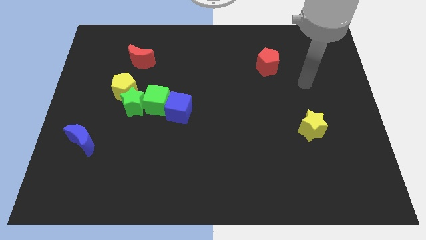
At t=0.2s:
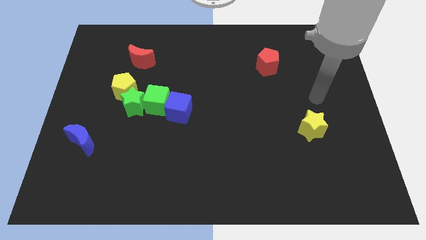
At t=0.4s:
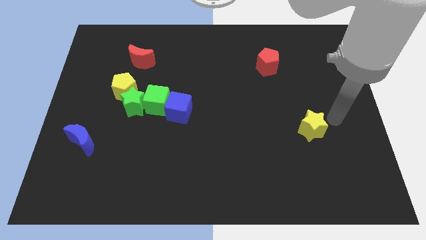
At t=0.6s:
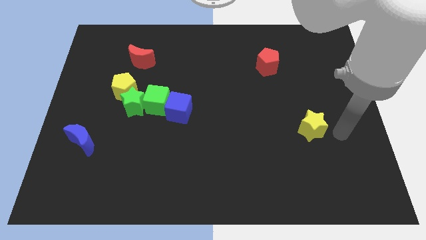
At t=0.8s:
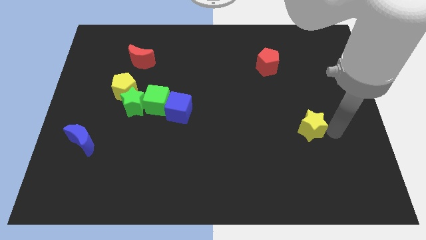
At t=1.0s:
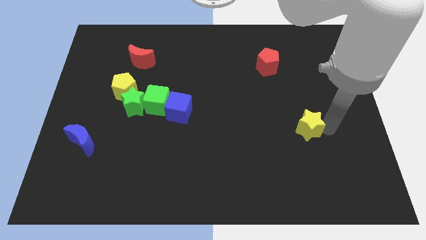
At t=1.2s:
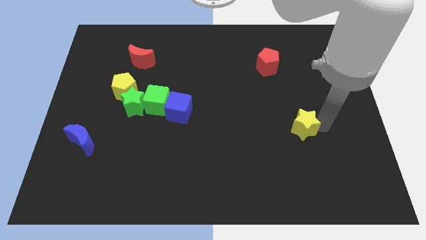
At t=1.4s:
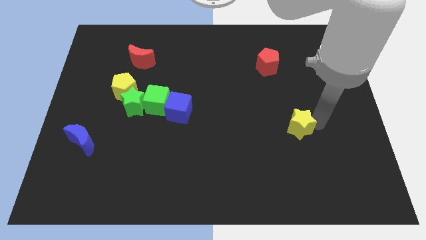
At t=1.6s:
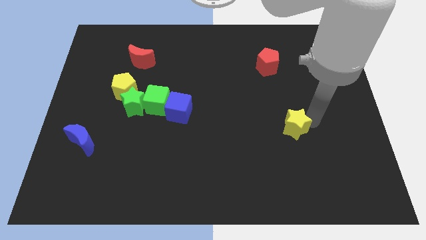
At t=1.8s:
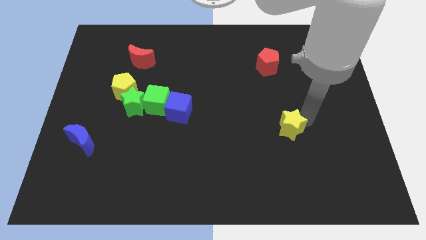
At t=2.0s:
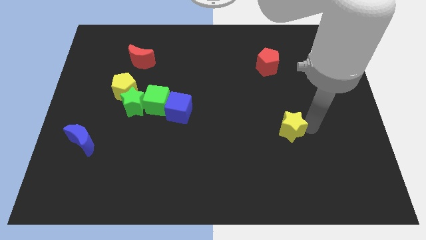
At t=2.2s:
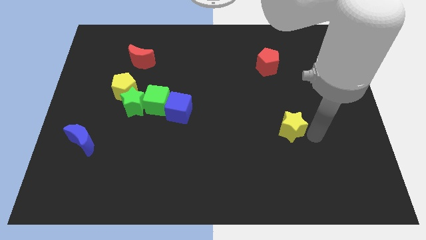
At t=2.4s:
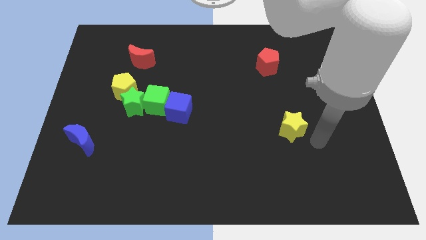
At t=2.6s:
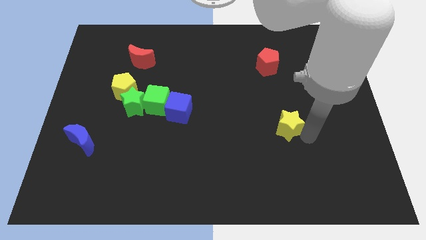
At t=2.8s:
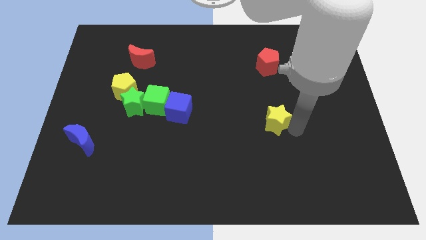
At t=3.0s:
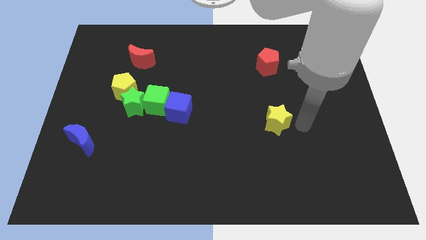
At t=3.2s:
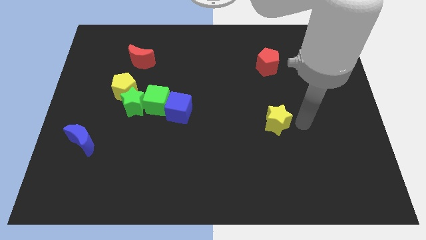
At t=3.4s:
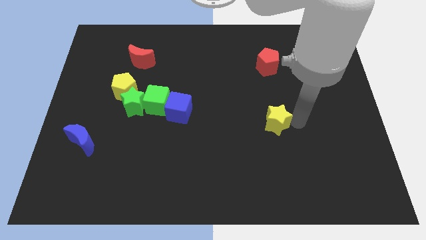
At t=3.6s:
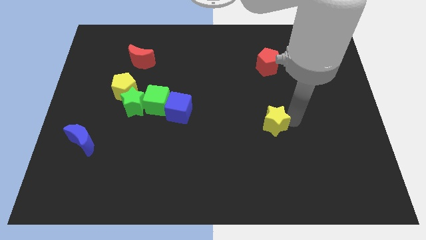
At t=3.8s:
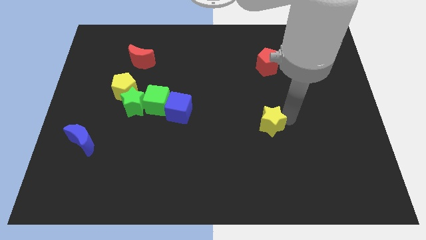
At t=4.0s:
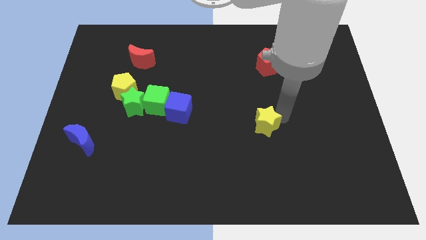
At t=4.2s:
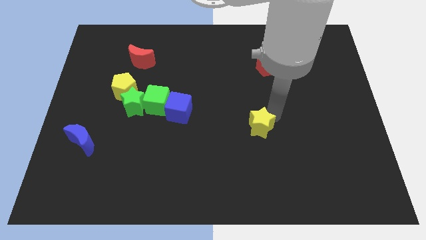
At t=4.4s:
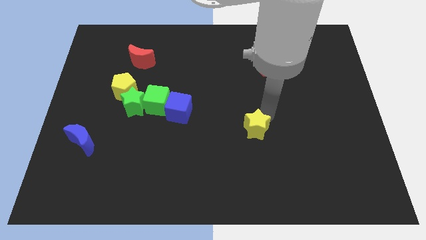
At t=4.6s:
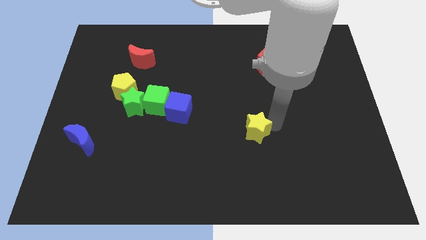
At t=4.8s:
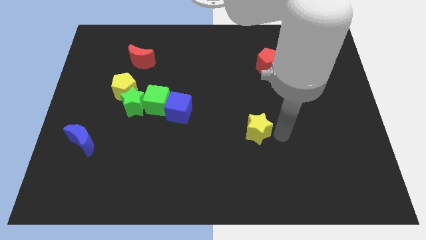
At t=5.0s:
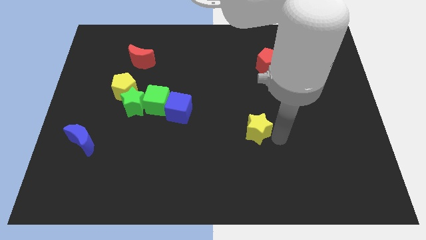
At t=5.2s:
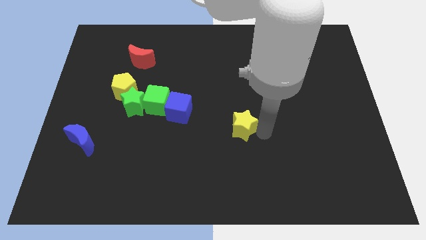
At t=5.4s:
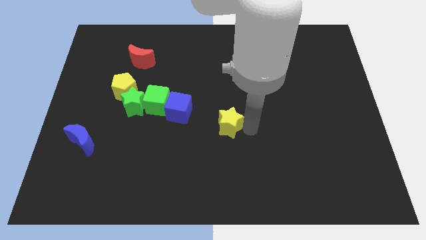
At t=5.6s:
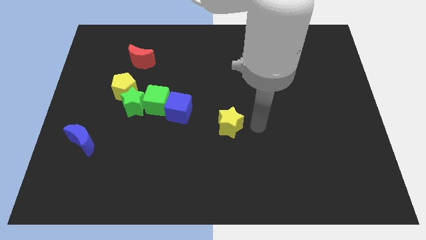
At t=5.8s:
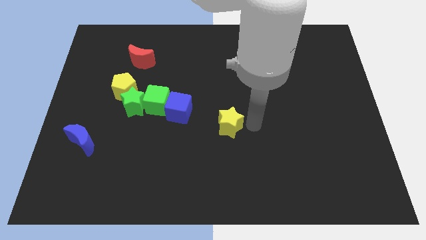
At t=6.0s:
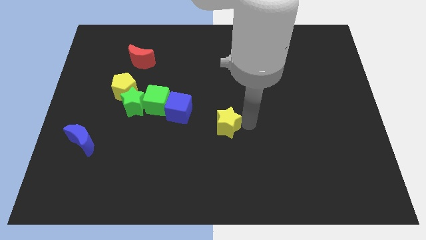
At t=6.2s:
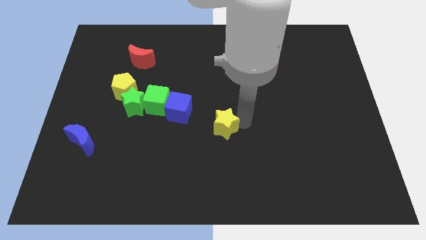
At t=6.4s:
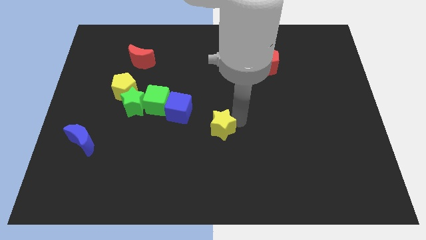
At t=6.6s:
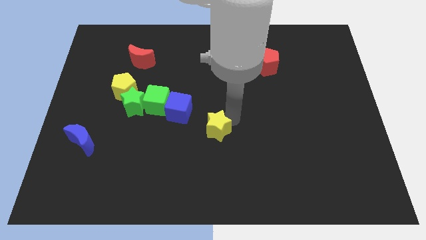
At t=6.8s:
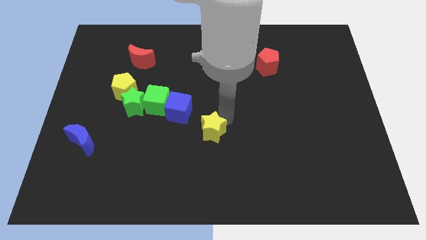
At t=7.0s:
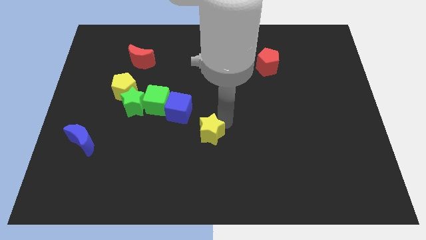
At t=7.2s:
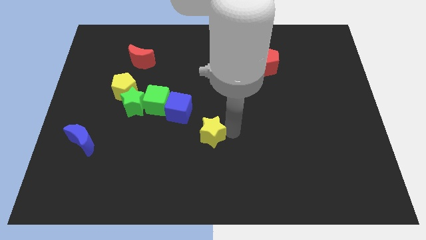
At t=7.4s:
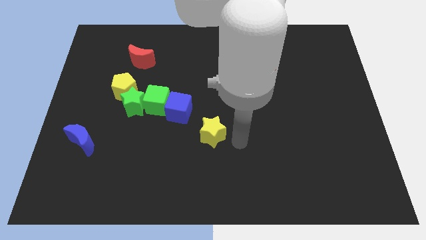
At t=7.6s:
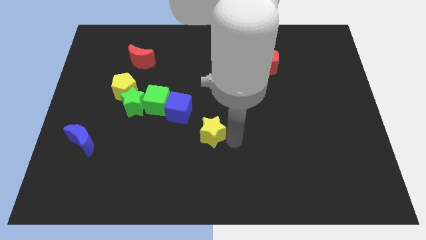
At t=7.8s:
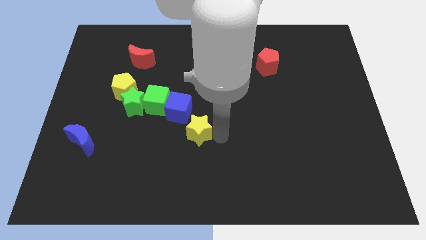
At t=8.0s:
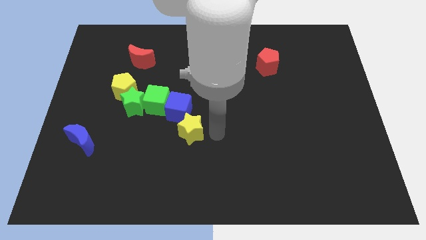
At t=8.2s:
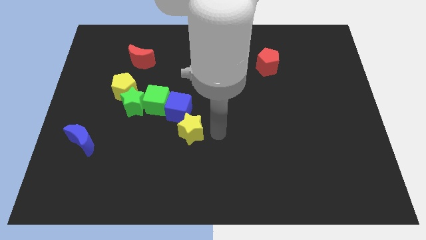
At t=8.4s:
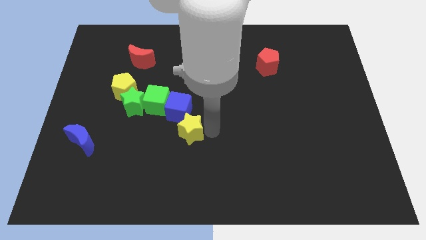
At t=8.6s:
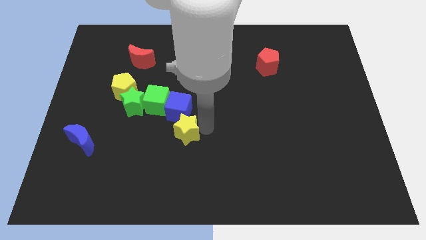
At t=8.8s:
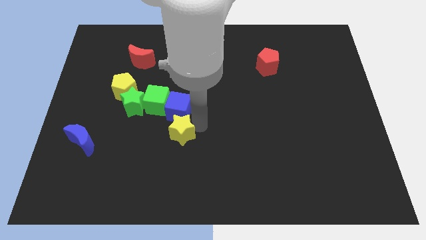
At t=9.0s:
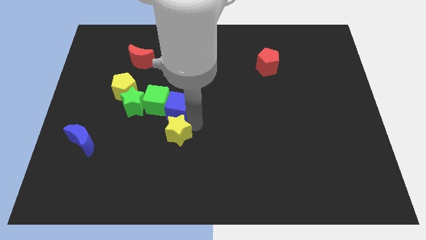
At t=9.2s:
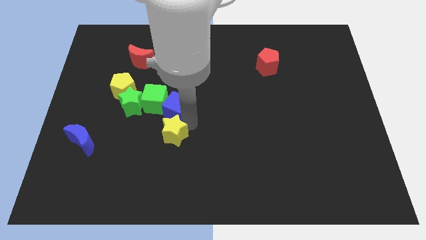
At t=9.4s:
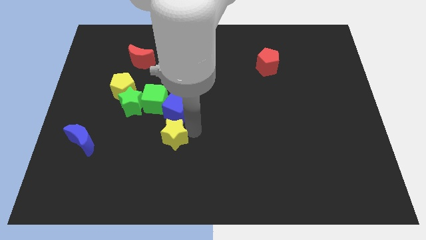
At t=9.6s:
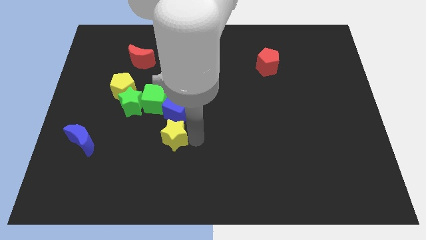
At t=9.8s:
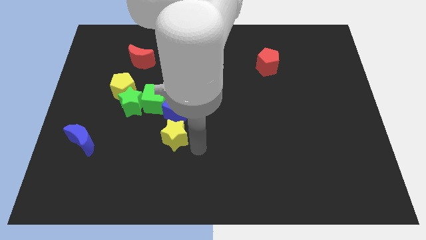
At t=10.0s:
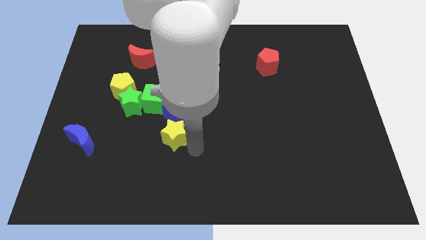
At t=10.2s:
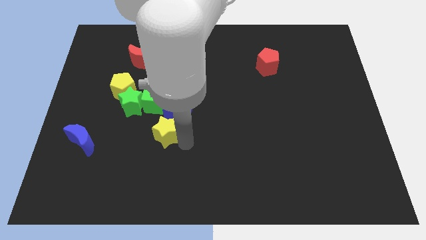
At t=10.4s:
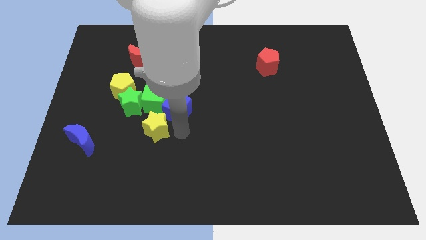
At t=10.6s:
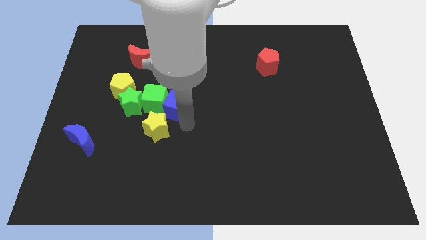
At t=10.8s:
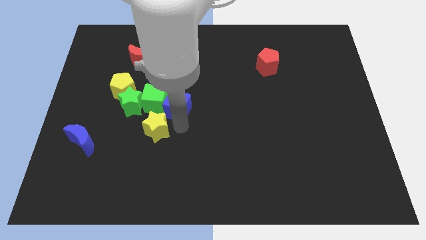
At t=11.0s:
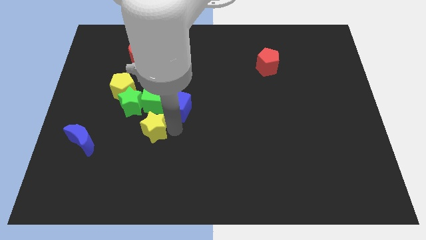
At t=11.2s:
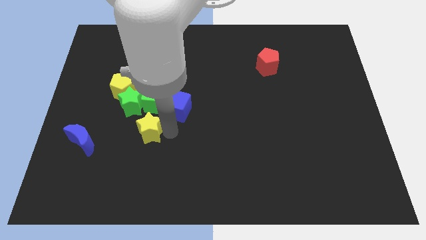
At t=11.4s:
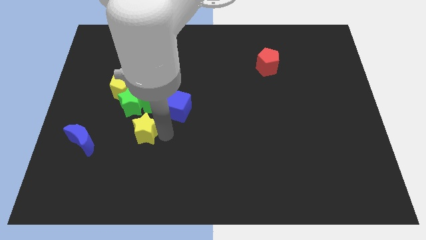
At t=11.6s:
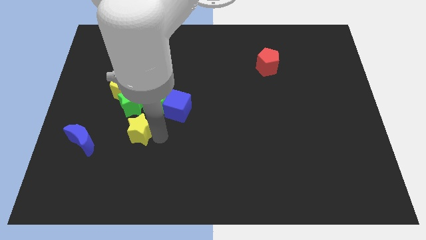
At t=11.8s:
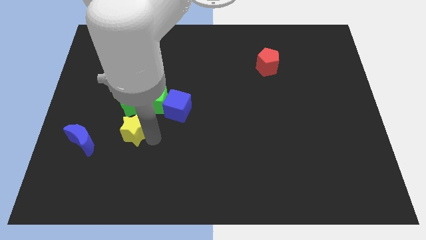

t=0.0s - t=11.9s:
put the yellow star to the bottom side of the yellow pentagon

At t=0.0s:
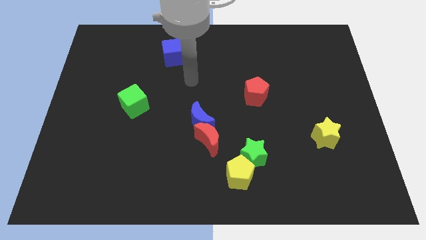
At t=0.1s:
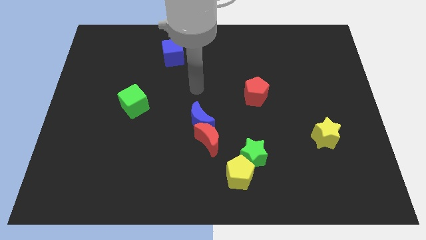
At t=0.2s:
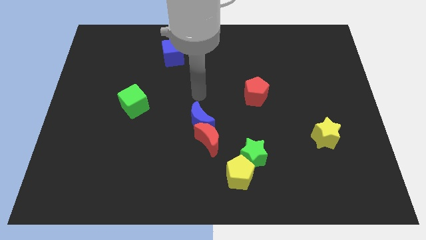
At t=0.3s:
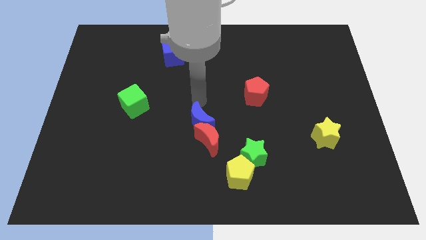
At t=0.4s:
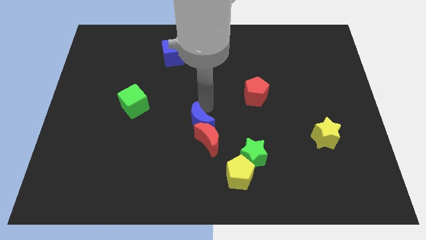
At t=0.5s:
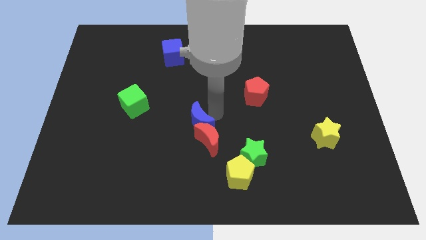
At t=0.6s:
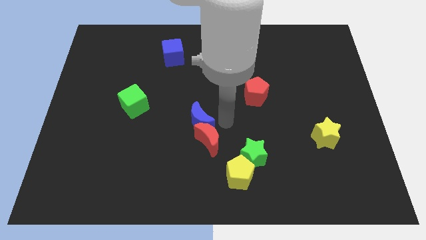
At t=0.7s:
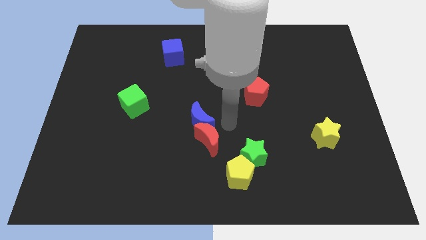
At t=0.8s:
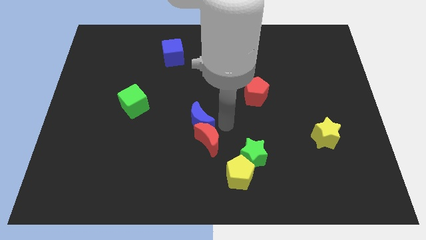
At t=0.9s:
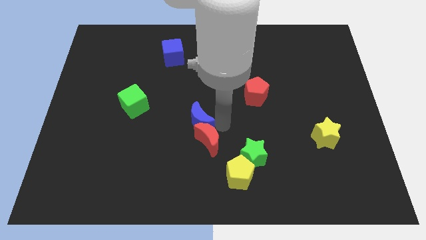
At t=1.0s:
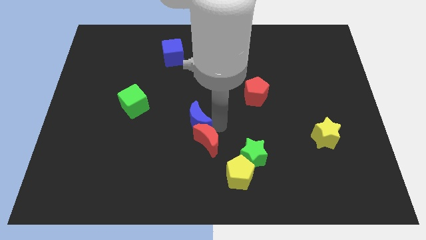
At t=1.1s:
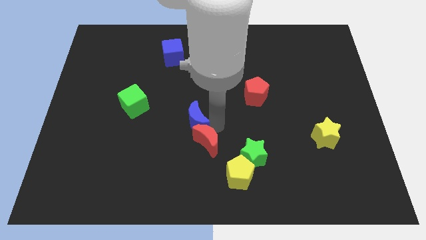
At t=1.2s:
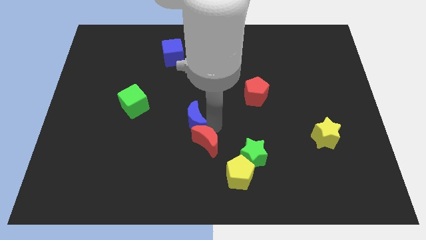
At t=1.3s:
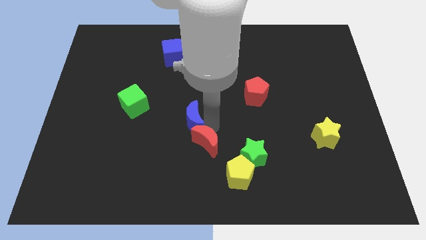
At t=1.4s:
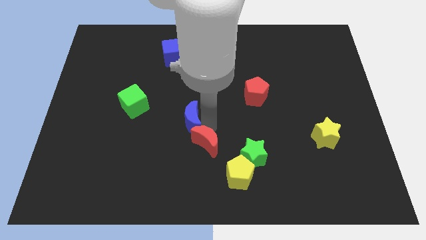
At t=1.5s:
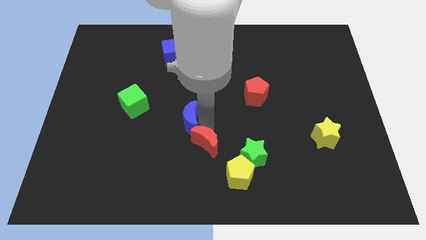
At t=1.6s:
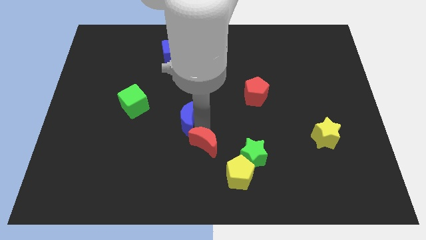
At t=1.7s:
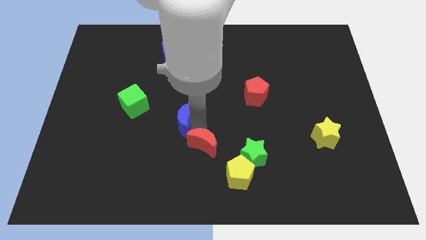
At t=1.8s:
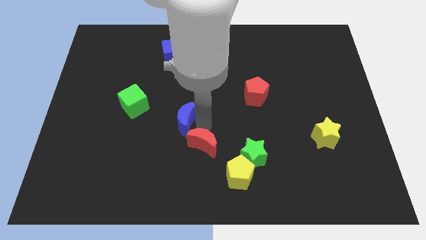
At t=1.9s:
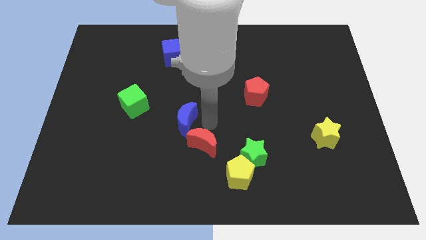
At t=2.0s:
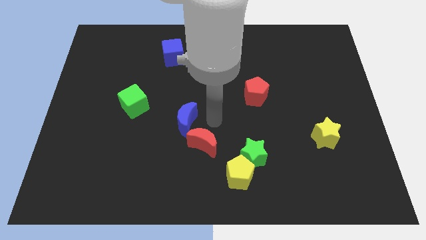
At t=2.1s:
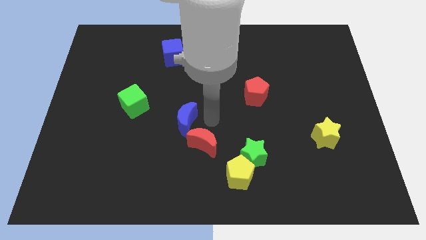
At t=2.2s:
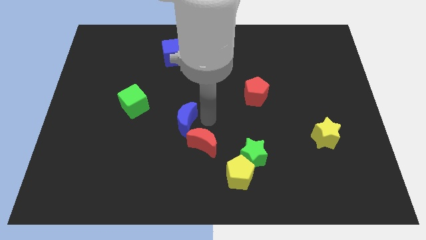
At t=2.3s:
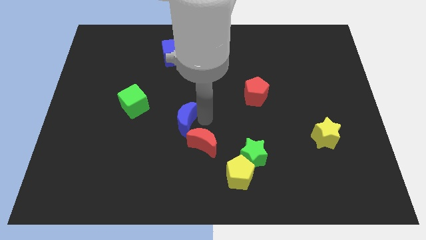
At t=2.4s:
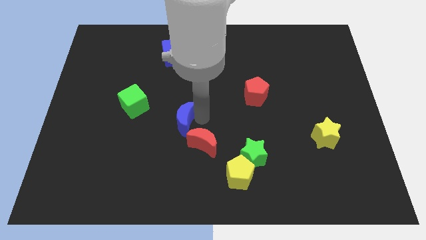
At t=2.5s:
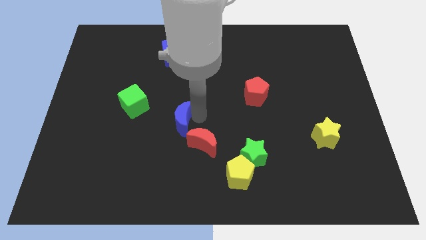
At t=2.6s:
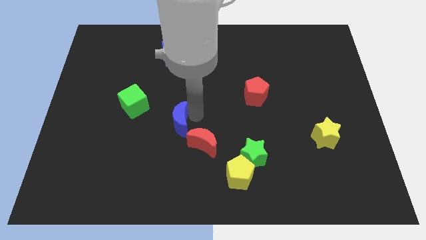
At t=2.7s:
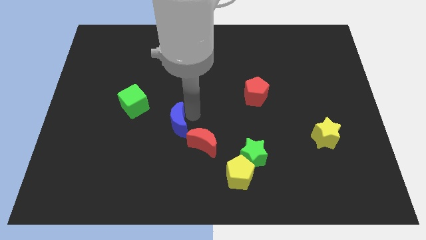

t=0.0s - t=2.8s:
put the blue moon diagonally down and to the right of the green cube
